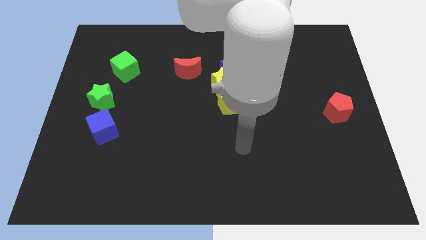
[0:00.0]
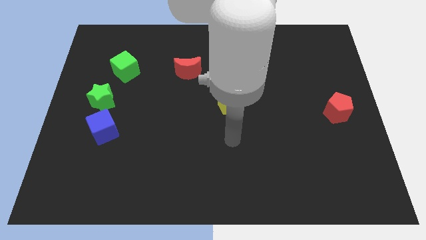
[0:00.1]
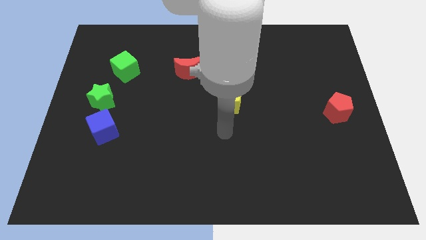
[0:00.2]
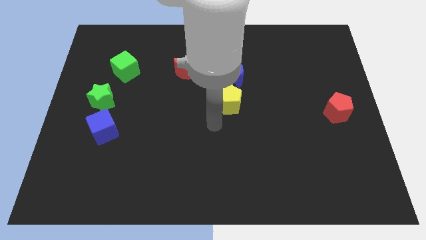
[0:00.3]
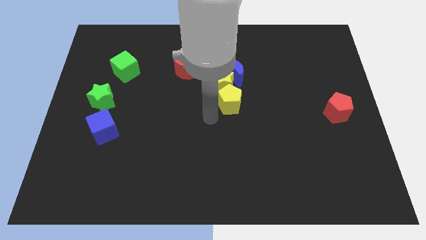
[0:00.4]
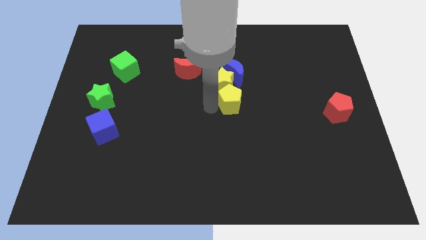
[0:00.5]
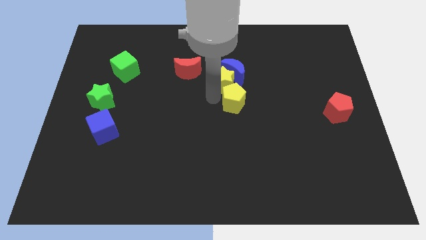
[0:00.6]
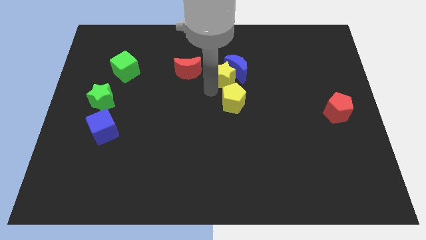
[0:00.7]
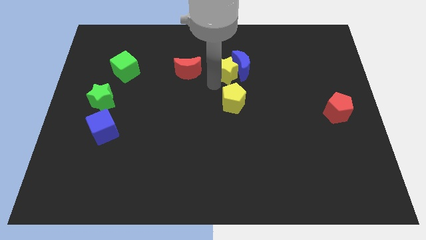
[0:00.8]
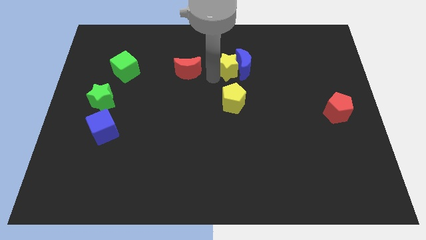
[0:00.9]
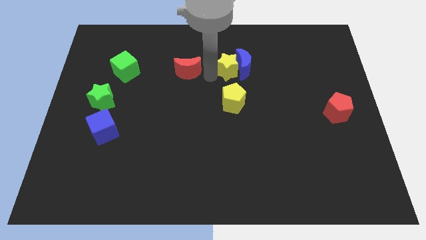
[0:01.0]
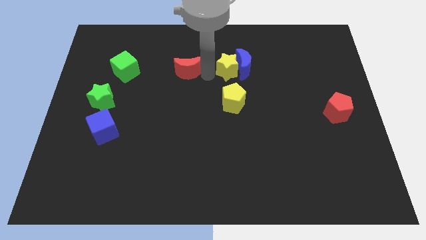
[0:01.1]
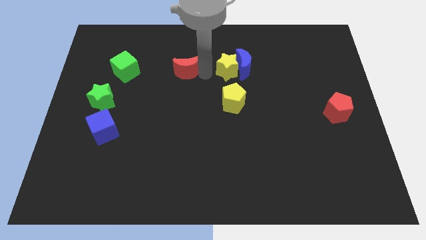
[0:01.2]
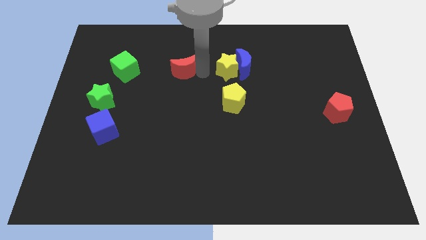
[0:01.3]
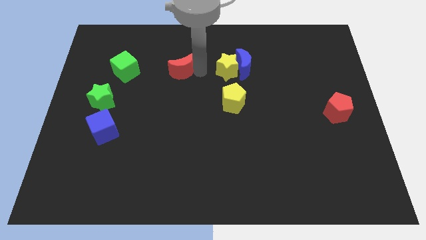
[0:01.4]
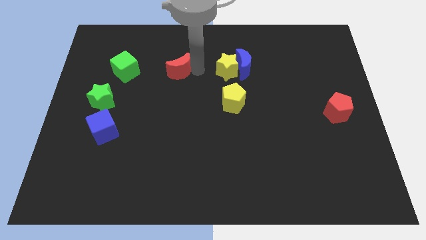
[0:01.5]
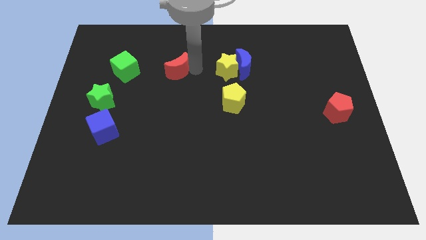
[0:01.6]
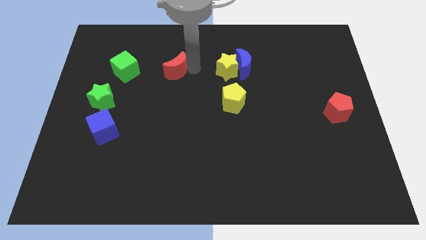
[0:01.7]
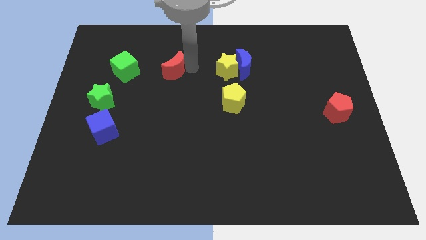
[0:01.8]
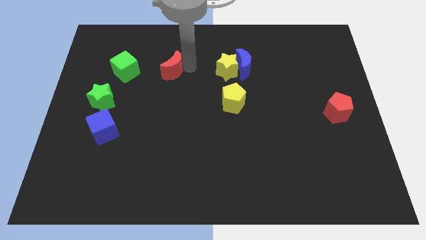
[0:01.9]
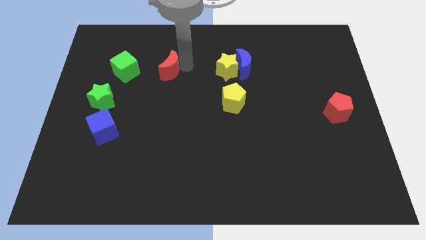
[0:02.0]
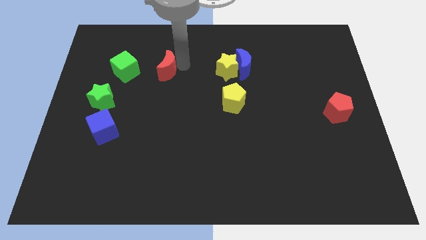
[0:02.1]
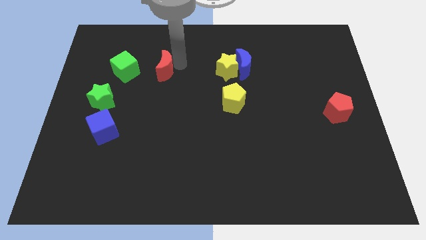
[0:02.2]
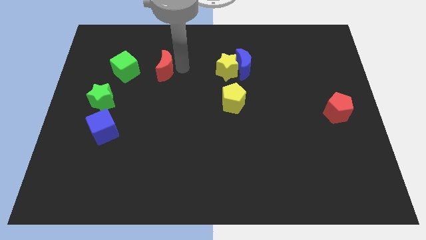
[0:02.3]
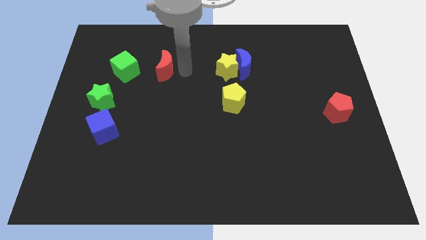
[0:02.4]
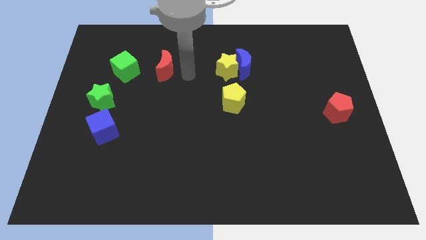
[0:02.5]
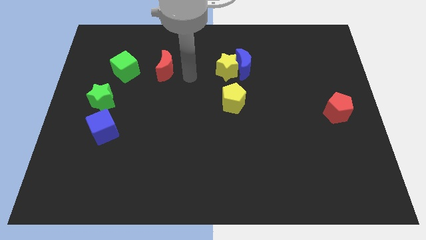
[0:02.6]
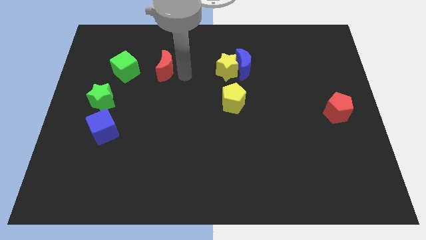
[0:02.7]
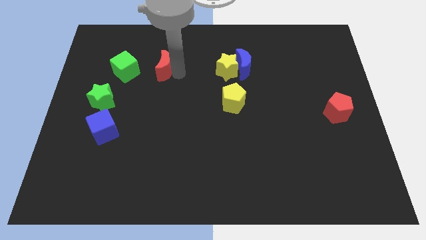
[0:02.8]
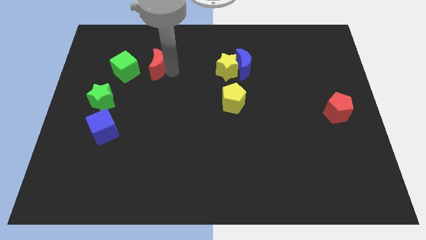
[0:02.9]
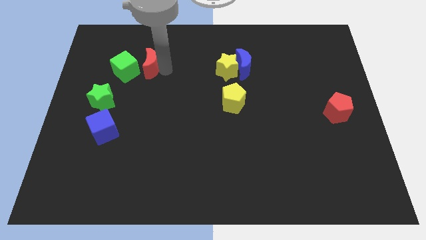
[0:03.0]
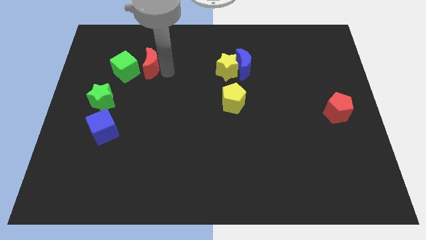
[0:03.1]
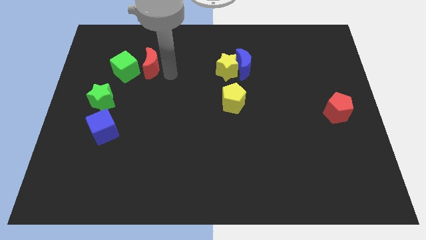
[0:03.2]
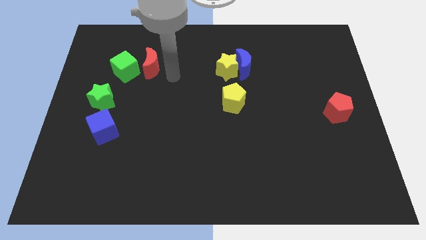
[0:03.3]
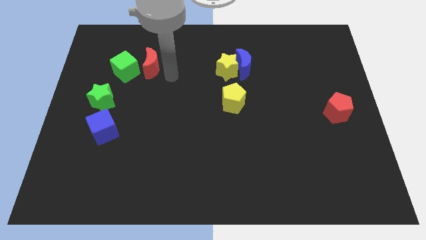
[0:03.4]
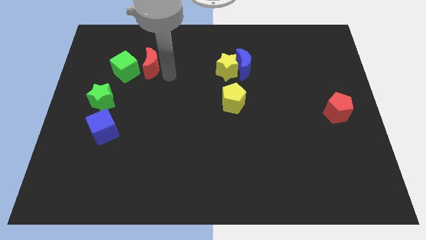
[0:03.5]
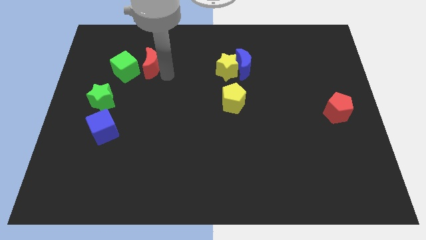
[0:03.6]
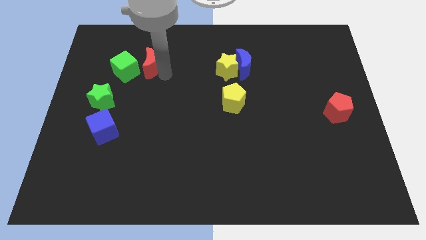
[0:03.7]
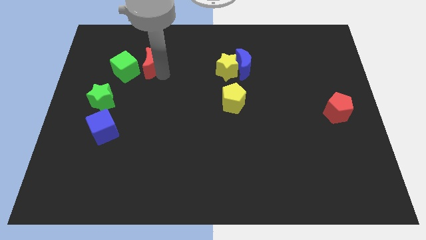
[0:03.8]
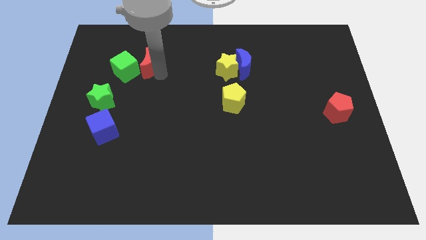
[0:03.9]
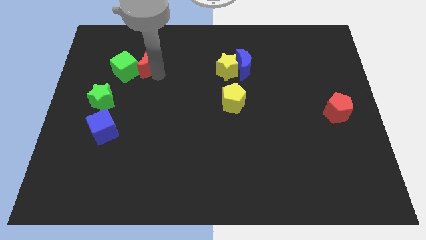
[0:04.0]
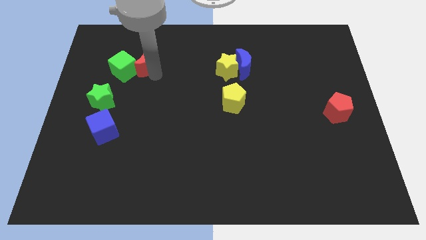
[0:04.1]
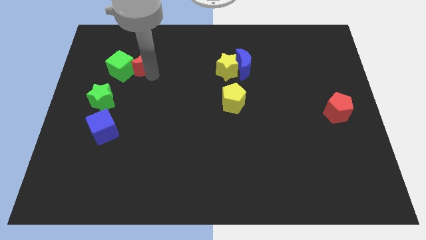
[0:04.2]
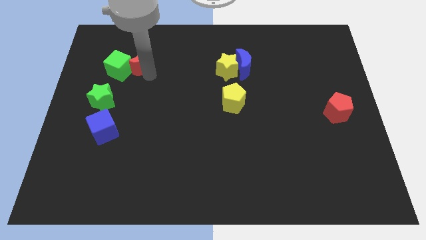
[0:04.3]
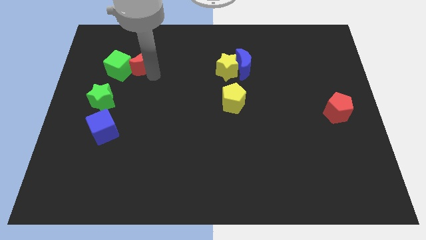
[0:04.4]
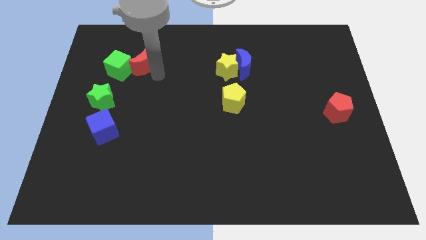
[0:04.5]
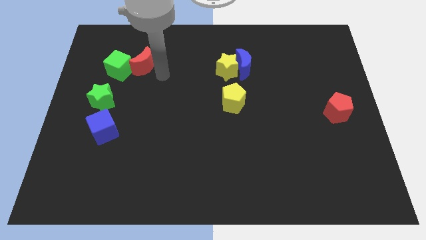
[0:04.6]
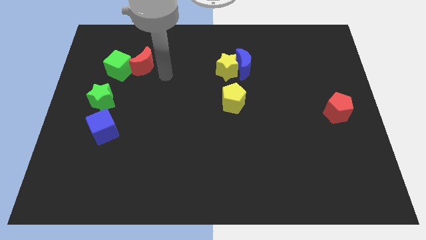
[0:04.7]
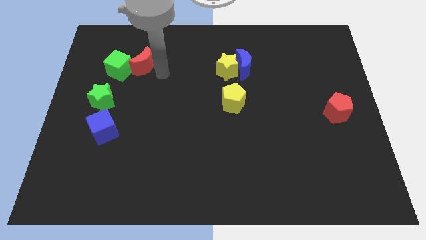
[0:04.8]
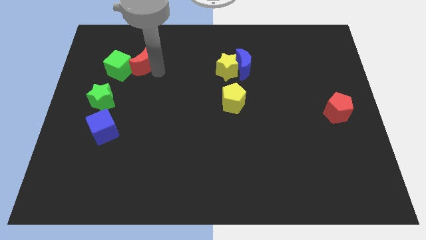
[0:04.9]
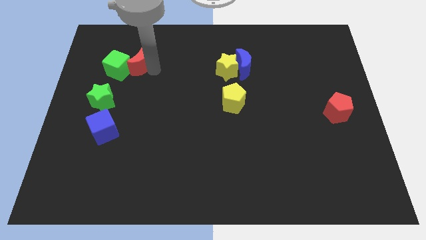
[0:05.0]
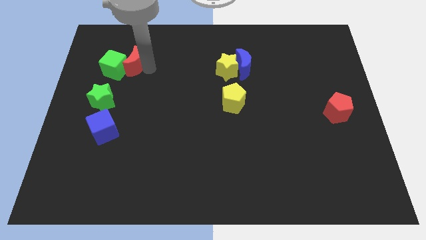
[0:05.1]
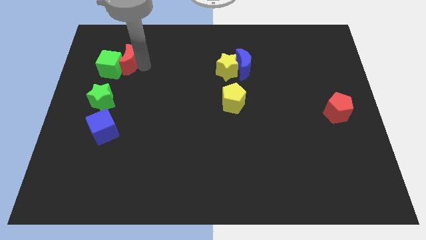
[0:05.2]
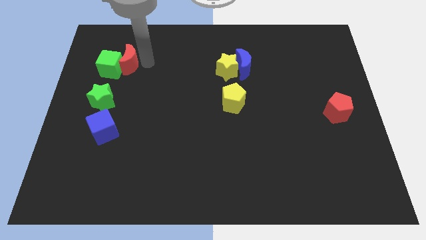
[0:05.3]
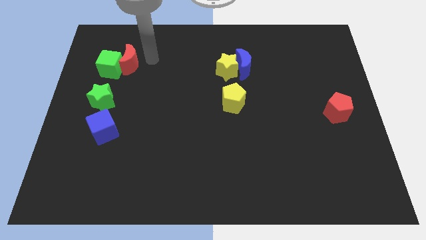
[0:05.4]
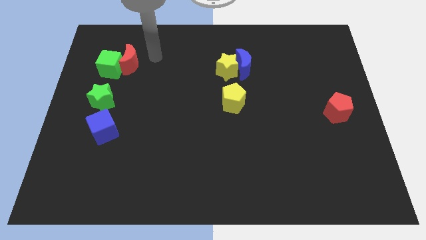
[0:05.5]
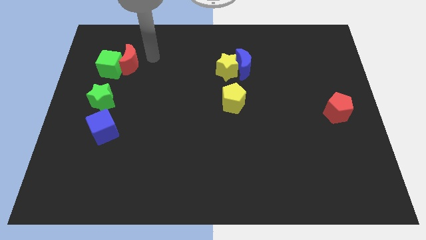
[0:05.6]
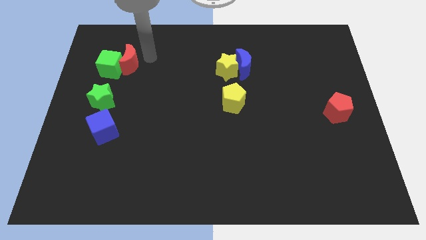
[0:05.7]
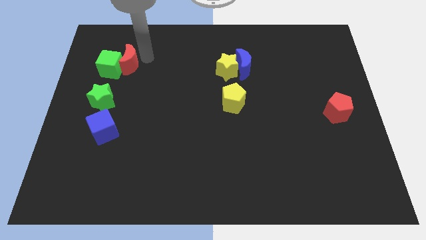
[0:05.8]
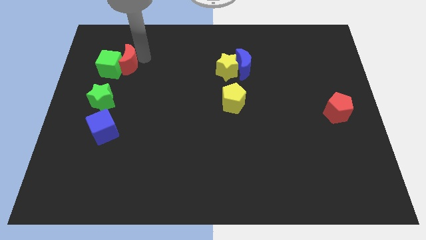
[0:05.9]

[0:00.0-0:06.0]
push the red moon above the green star
